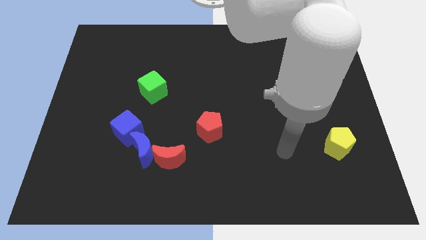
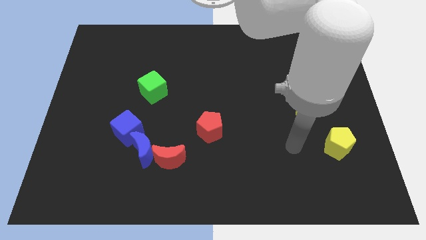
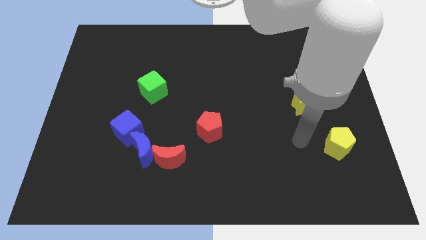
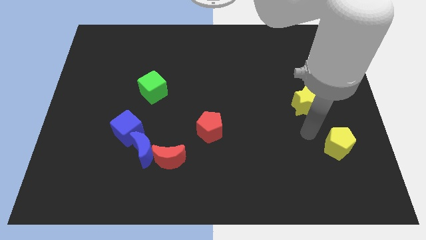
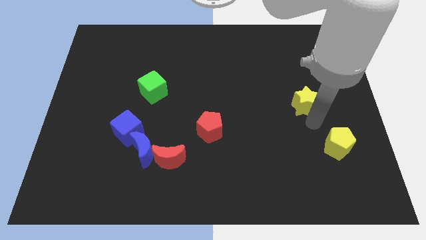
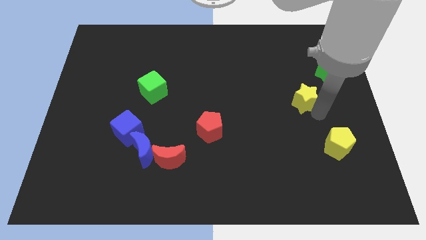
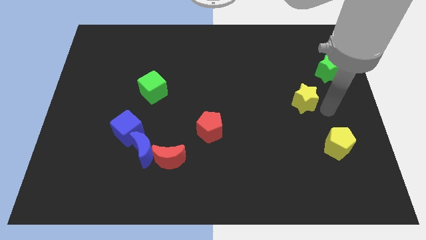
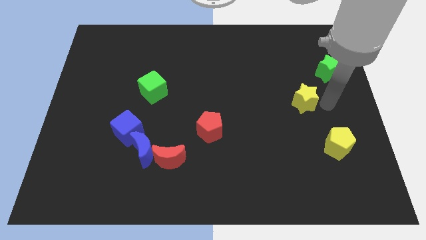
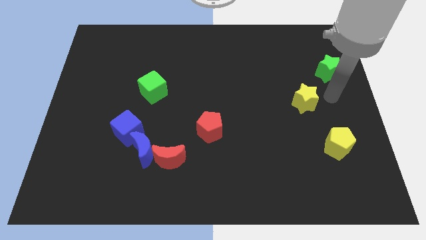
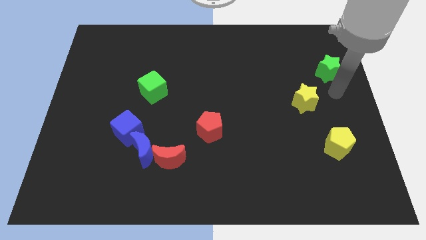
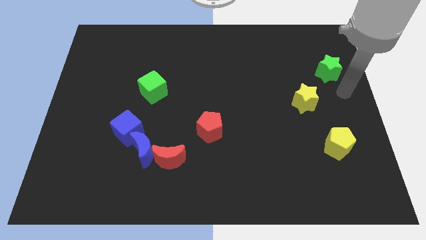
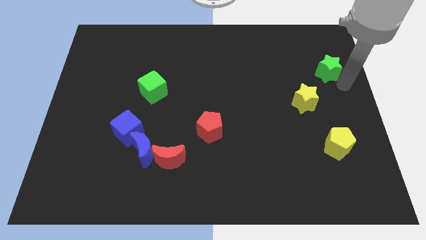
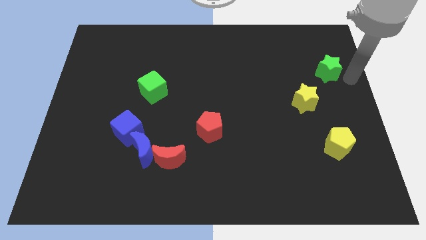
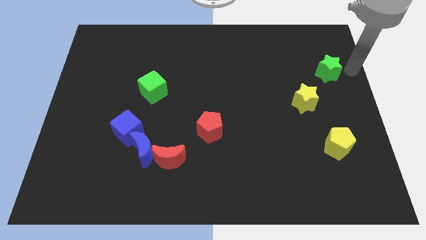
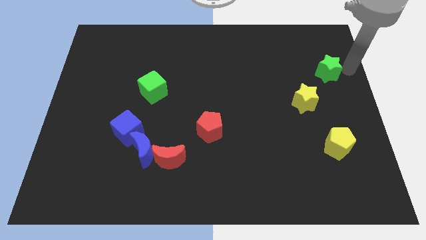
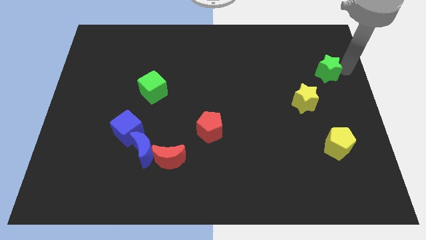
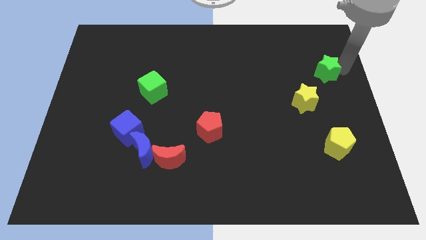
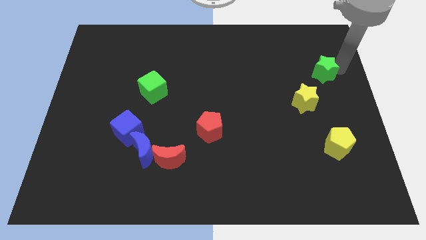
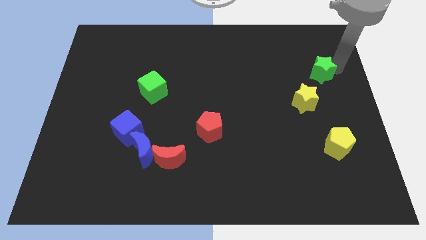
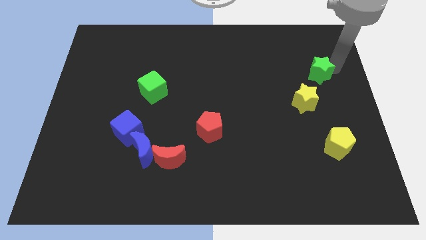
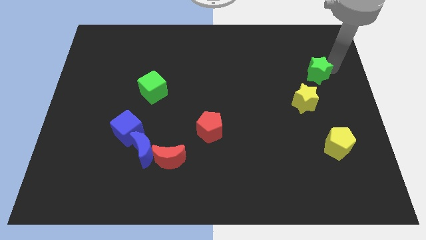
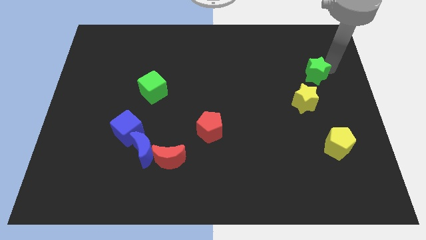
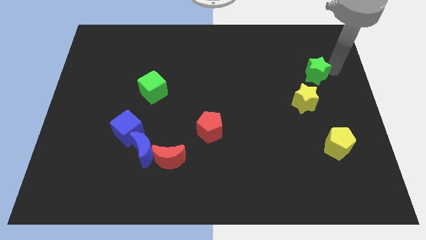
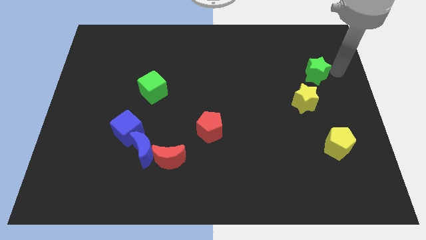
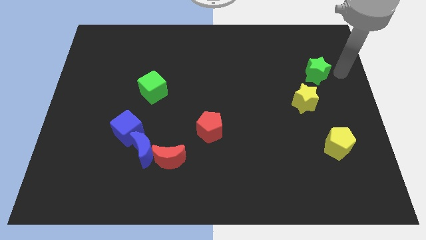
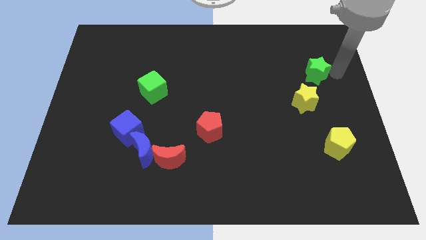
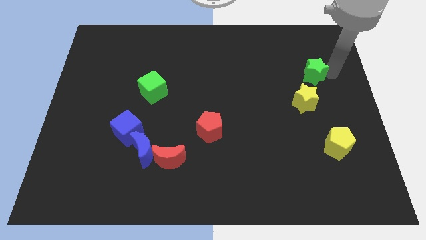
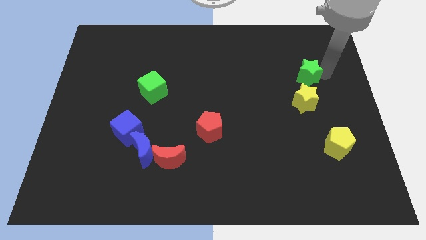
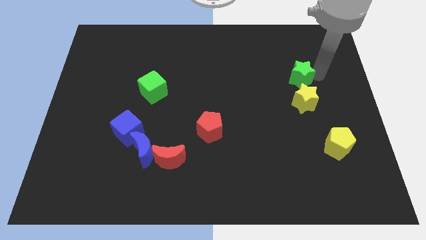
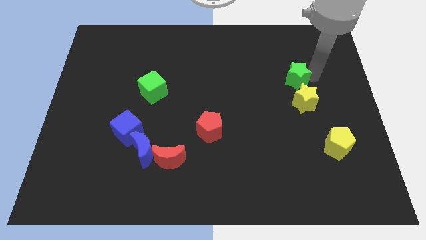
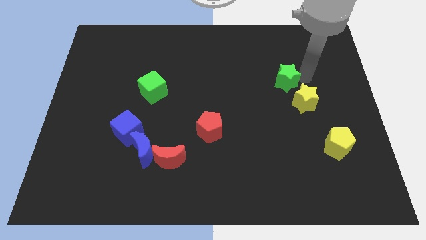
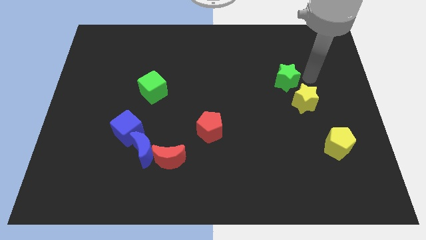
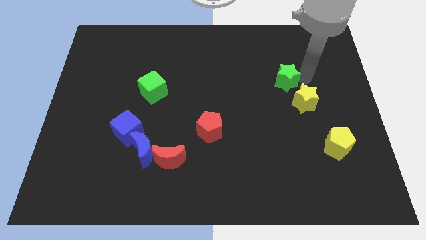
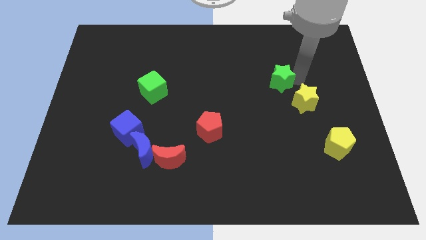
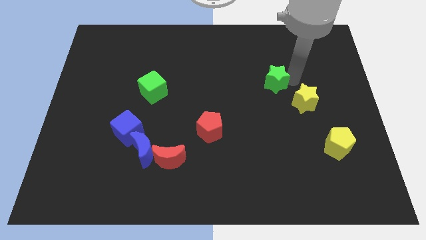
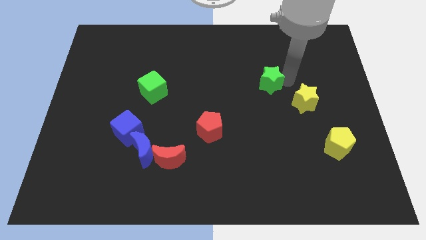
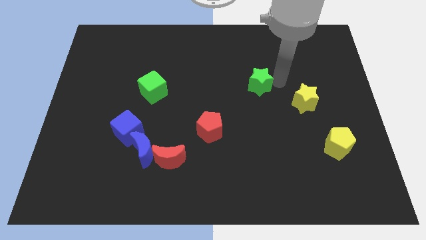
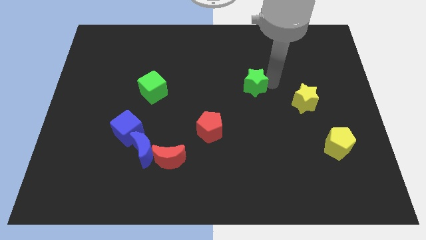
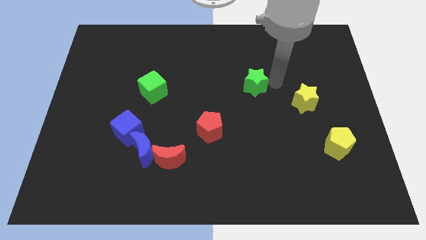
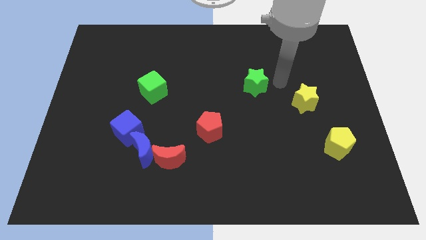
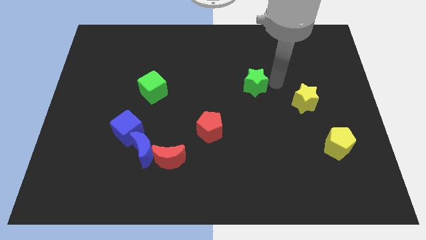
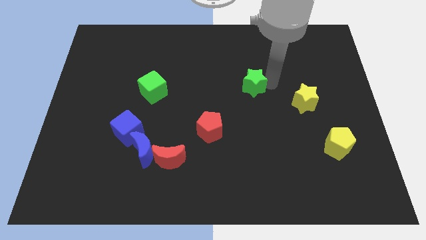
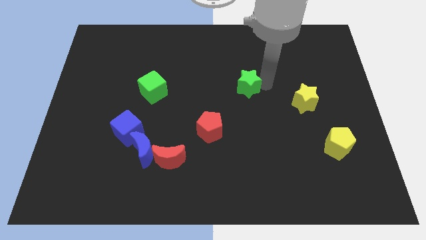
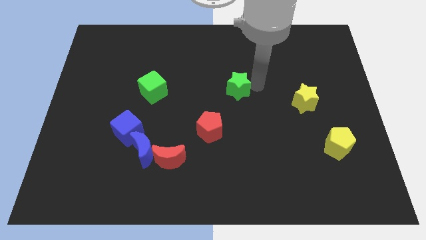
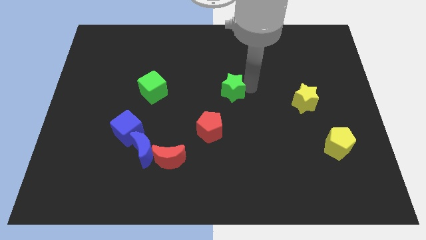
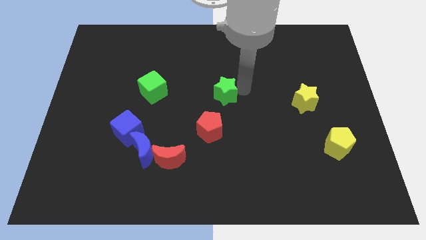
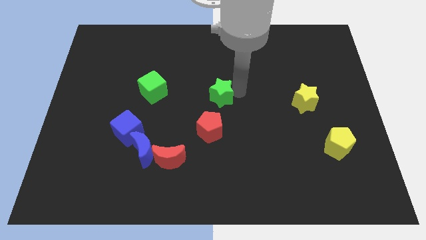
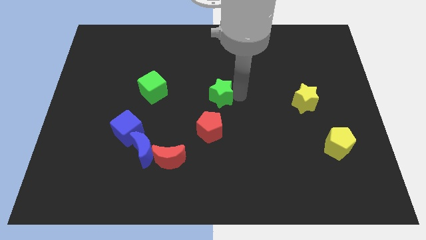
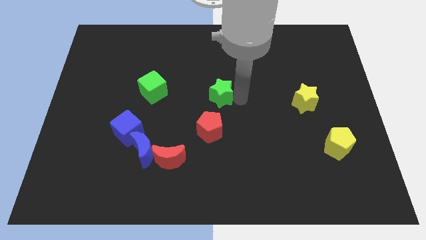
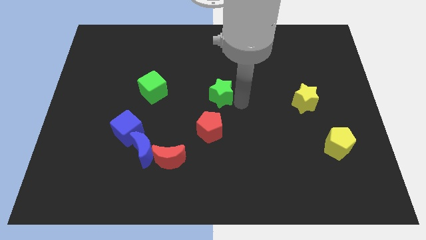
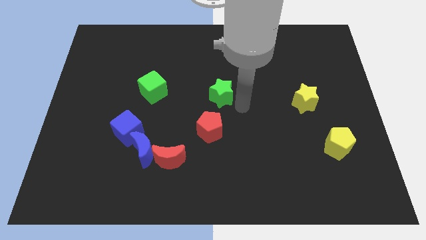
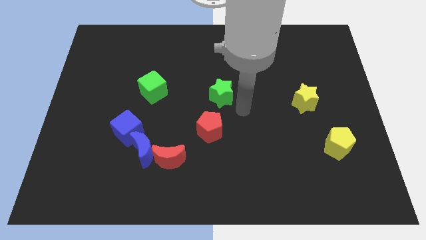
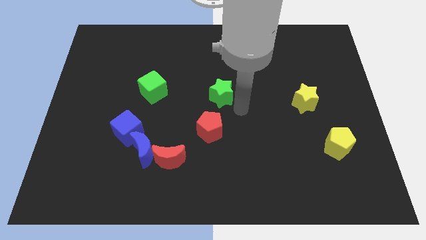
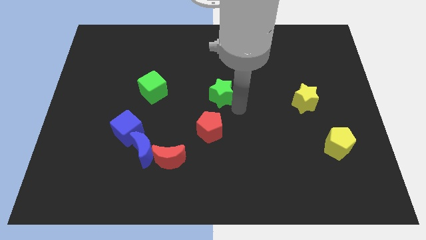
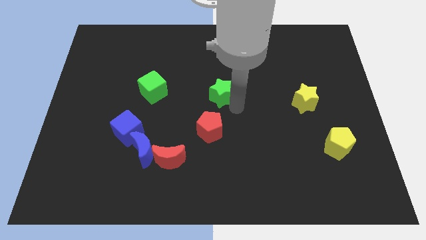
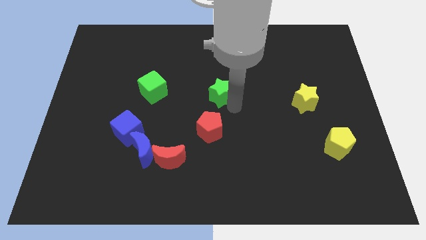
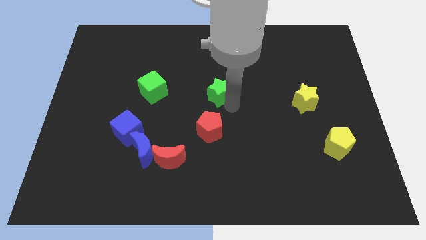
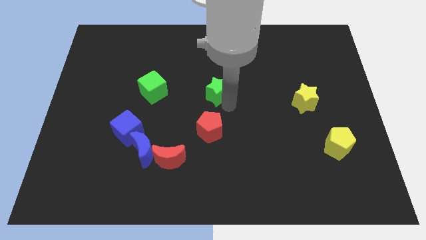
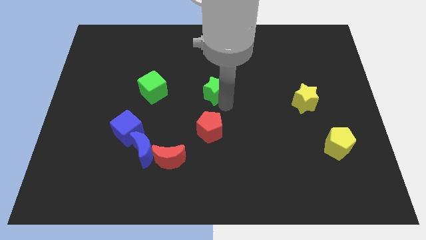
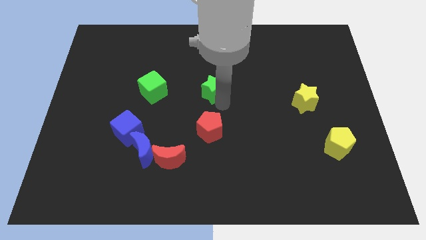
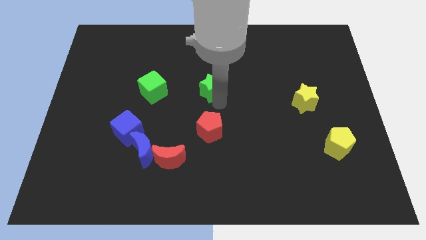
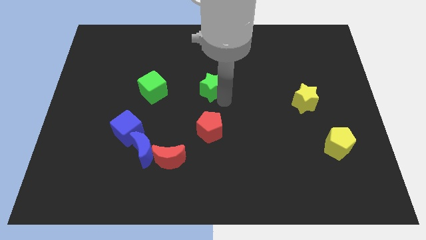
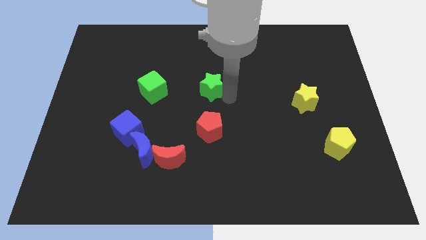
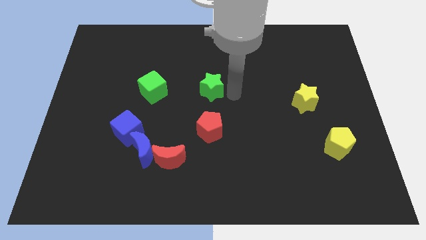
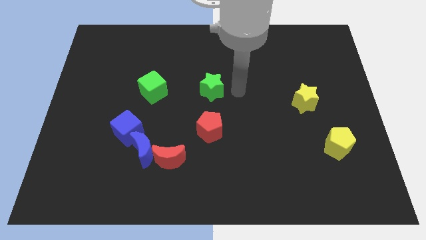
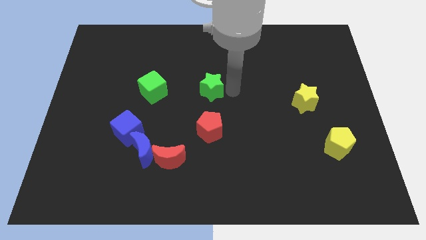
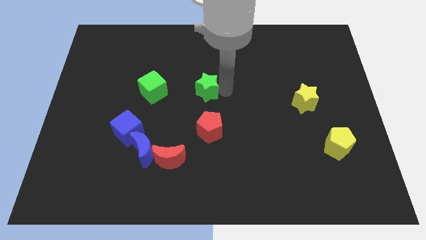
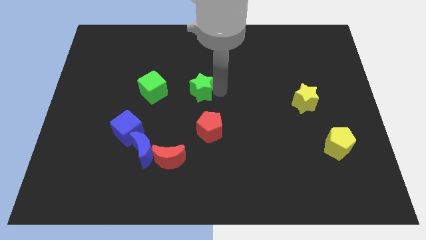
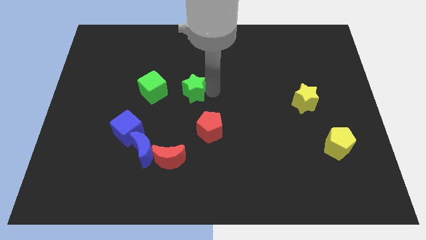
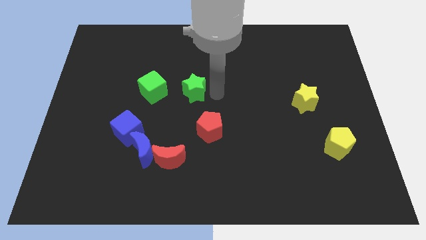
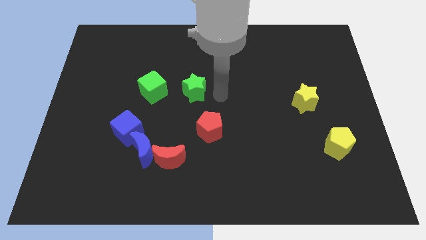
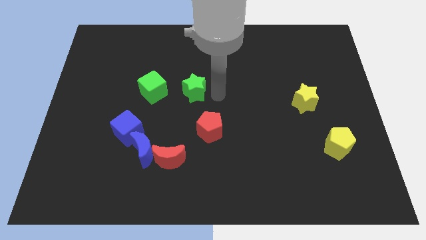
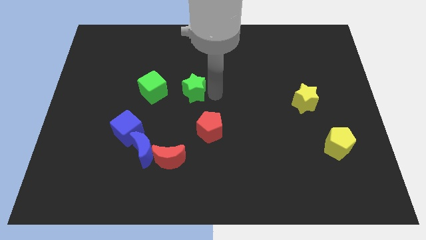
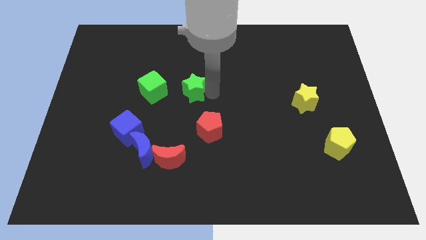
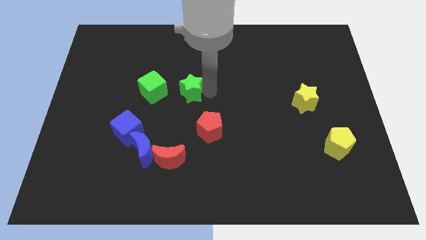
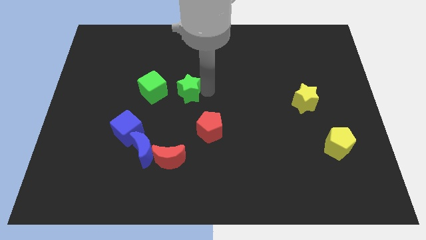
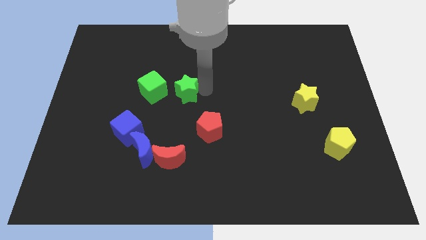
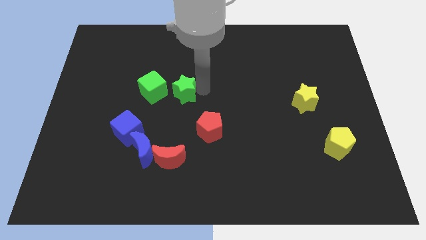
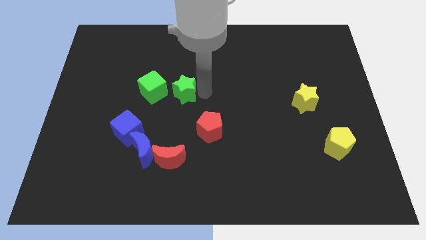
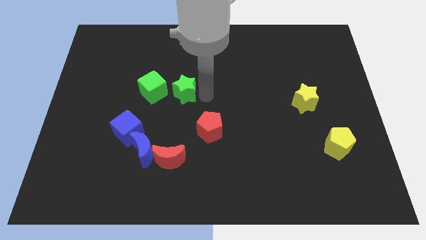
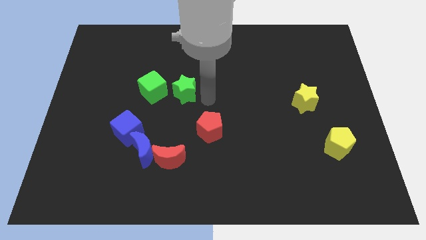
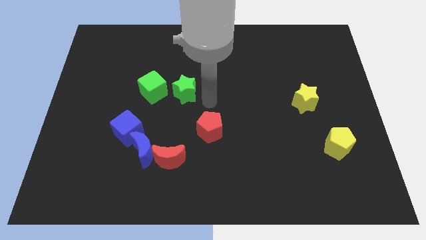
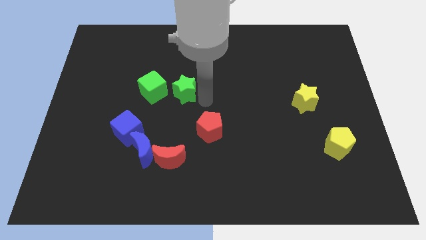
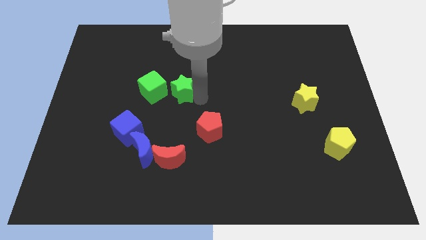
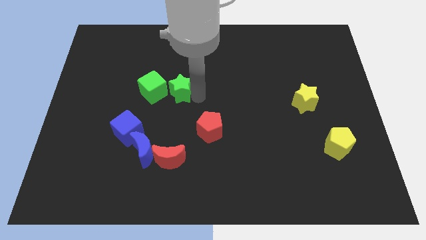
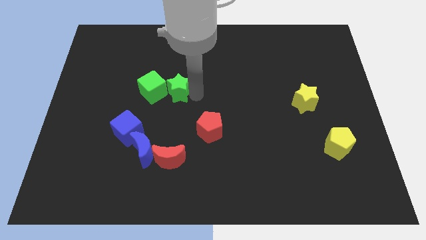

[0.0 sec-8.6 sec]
push the green star close to the green cube
